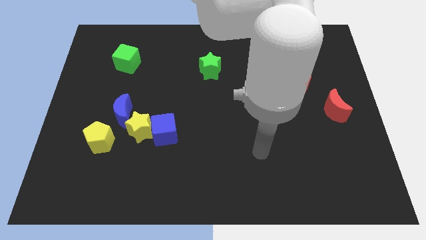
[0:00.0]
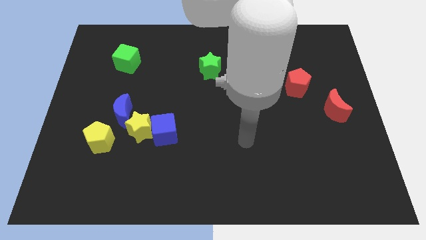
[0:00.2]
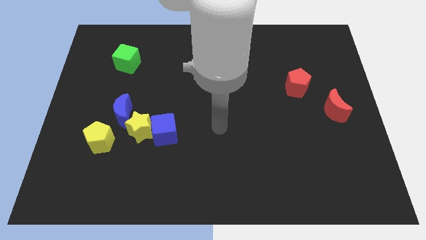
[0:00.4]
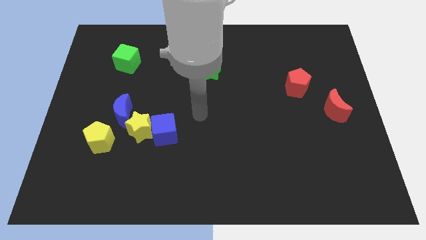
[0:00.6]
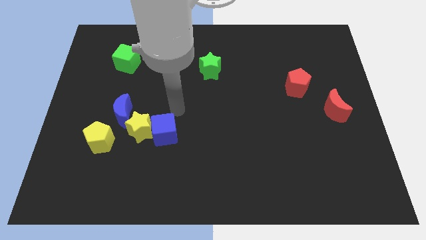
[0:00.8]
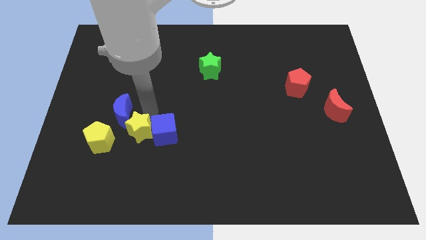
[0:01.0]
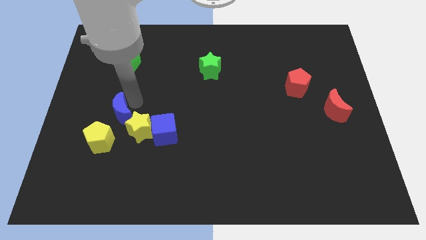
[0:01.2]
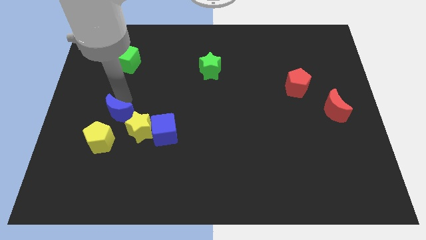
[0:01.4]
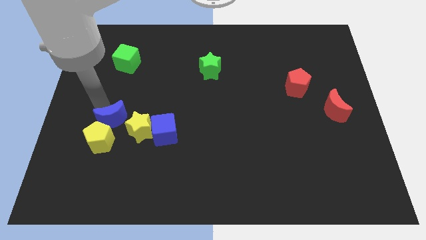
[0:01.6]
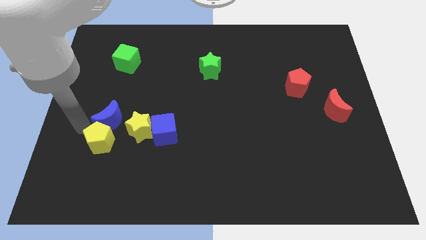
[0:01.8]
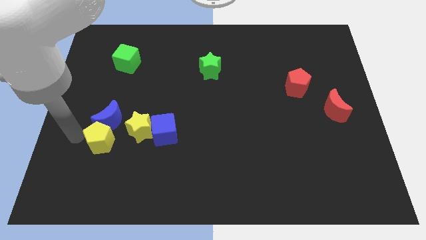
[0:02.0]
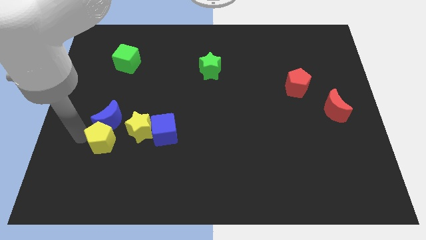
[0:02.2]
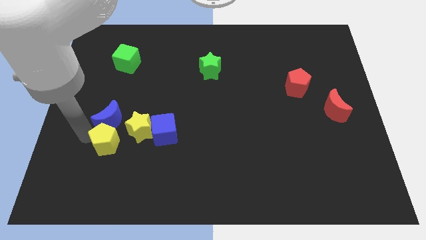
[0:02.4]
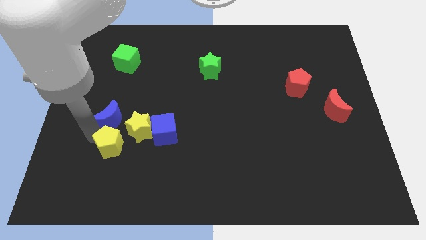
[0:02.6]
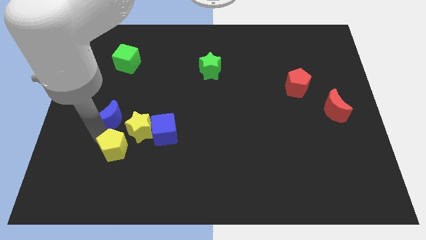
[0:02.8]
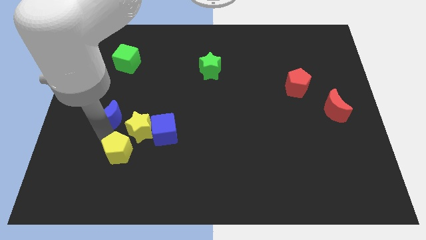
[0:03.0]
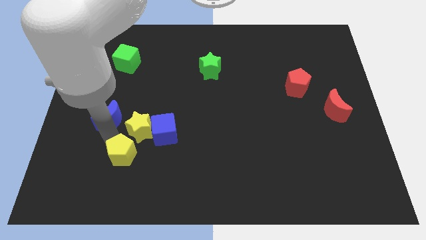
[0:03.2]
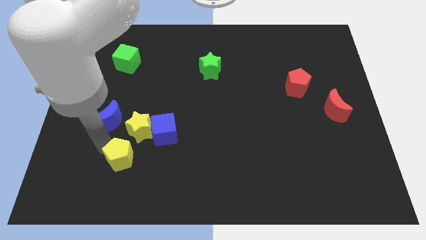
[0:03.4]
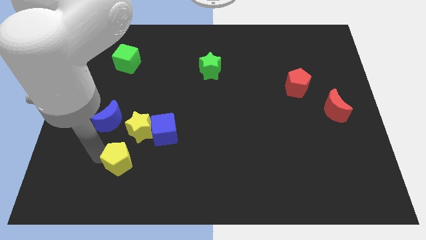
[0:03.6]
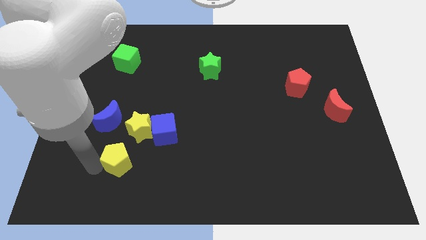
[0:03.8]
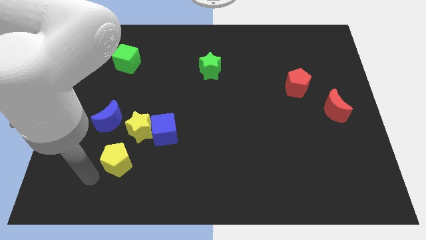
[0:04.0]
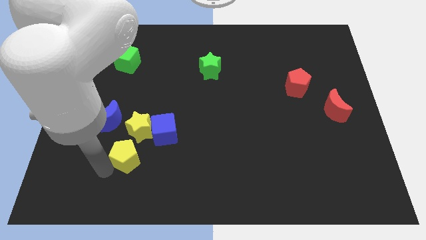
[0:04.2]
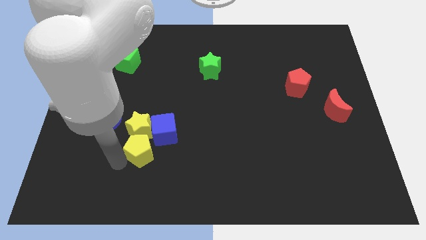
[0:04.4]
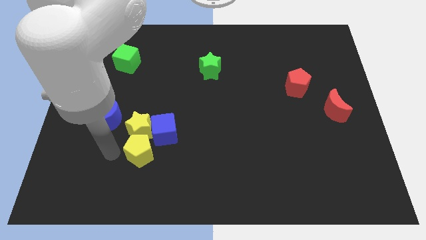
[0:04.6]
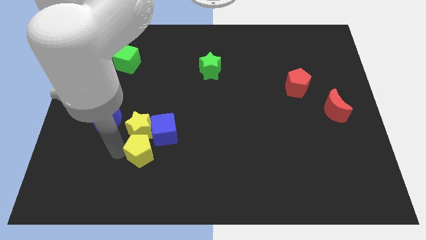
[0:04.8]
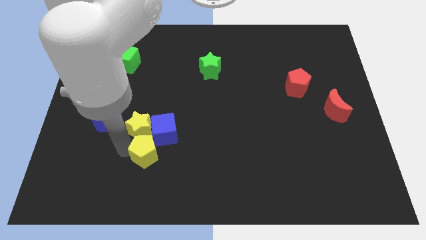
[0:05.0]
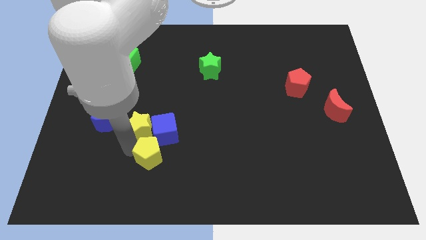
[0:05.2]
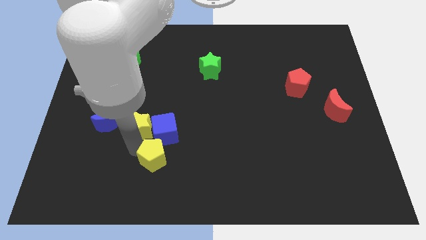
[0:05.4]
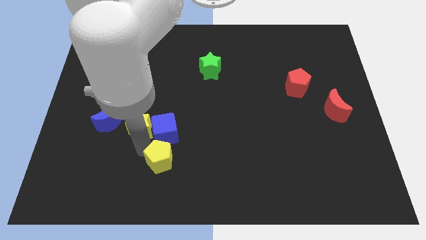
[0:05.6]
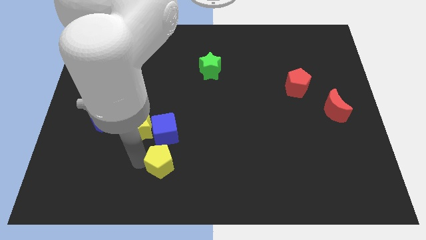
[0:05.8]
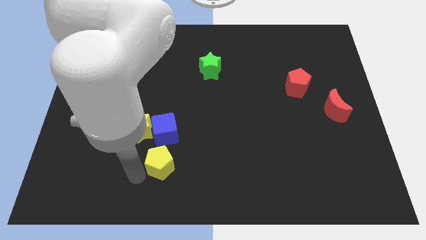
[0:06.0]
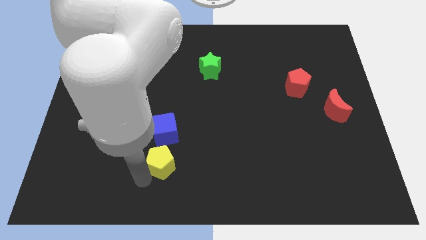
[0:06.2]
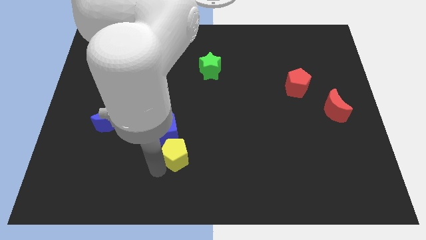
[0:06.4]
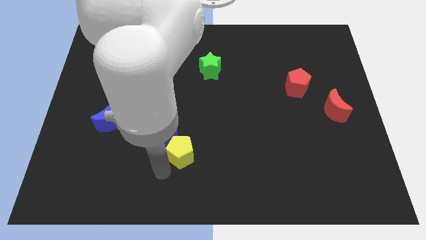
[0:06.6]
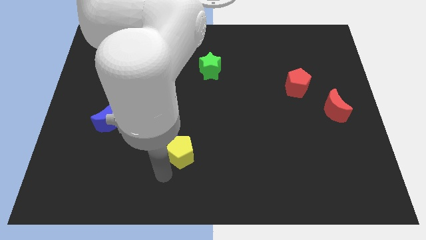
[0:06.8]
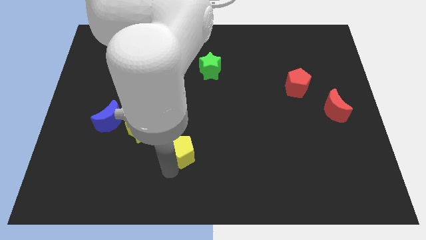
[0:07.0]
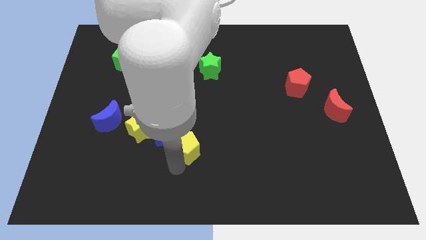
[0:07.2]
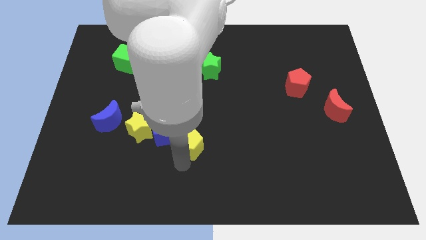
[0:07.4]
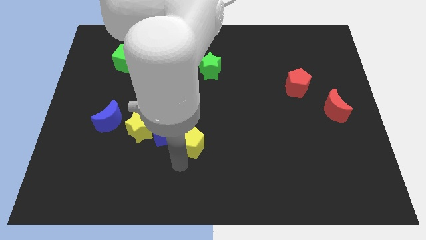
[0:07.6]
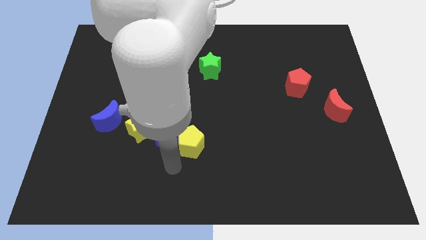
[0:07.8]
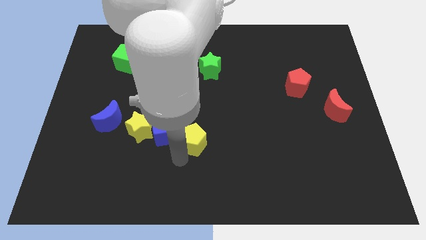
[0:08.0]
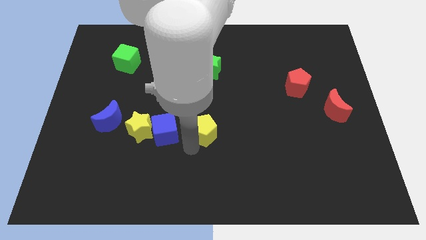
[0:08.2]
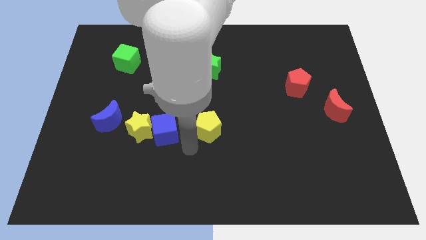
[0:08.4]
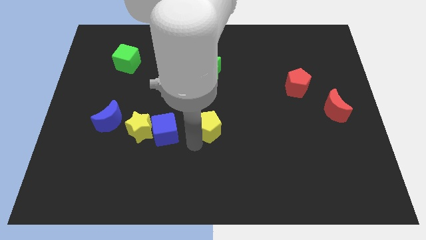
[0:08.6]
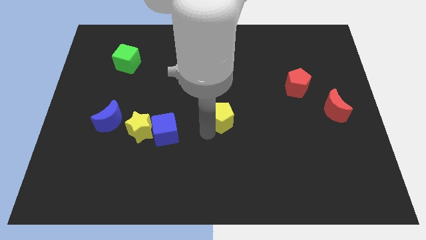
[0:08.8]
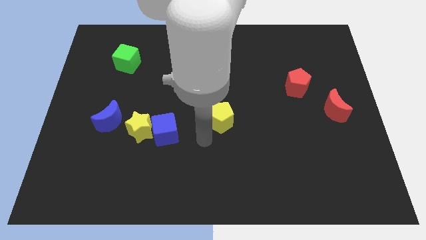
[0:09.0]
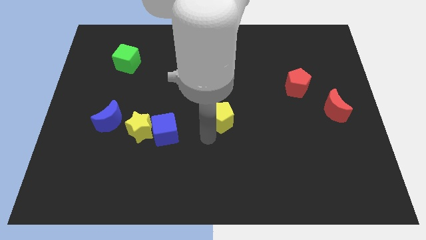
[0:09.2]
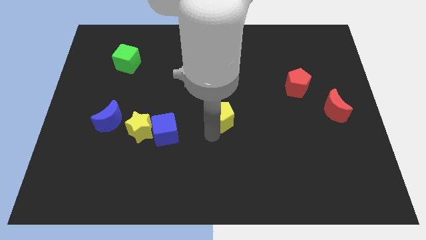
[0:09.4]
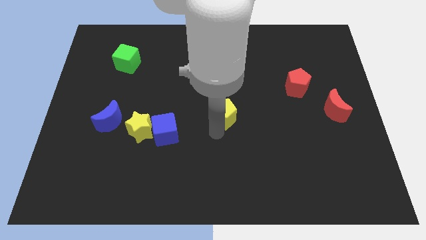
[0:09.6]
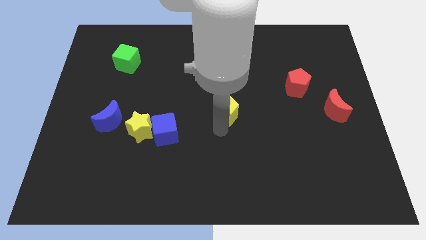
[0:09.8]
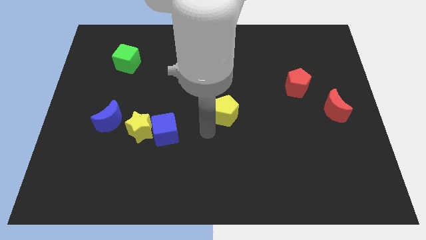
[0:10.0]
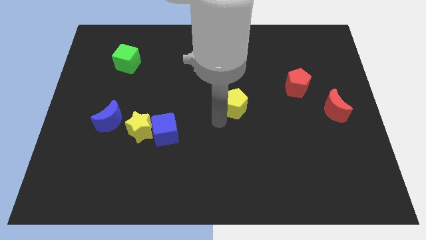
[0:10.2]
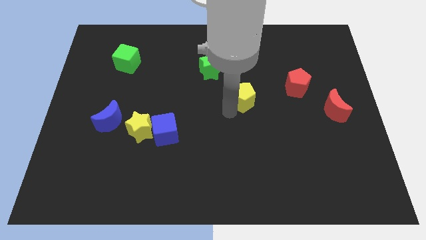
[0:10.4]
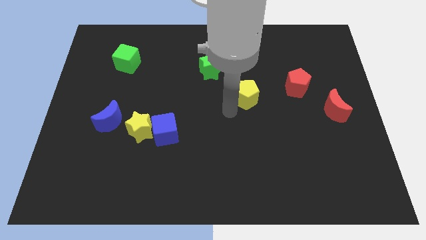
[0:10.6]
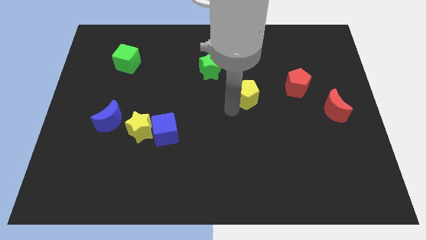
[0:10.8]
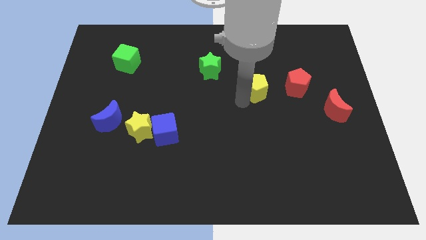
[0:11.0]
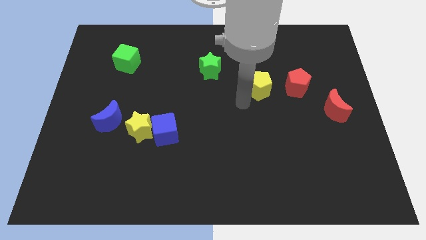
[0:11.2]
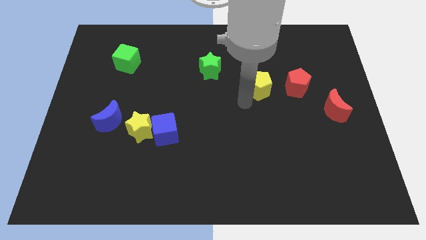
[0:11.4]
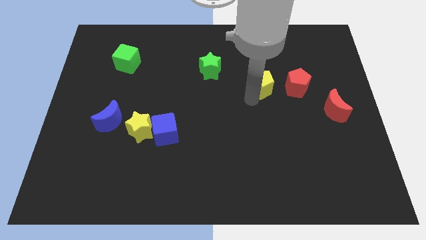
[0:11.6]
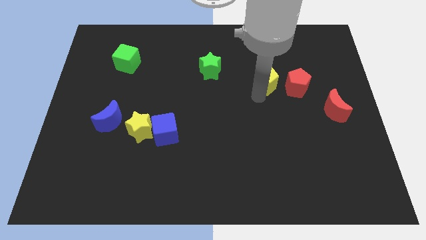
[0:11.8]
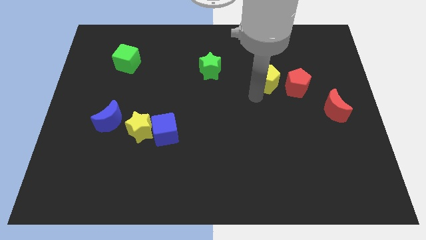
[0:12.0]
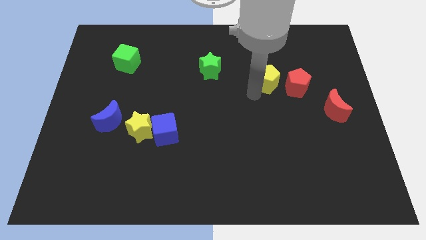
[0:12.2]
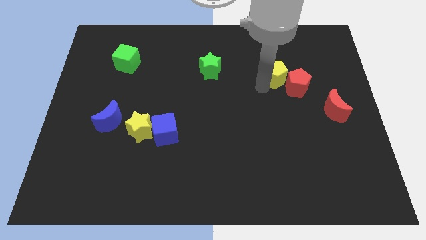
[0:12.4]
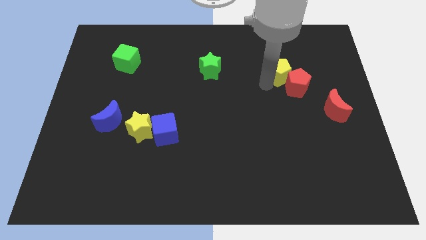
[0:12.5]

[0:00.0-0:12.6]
push the yellow pentagon to the top side of the red pentagon

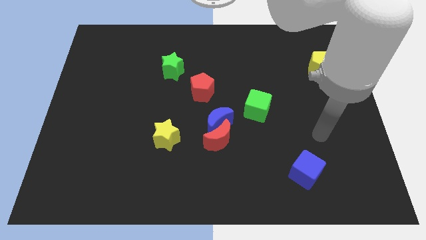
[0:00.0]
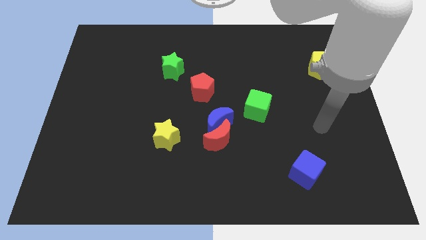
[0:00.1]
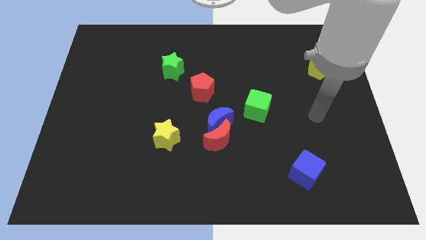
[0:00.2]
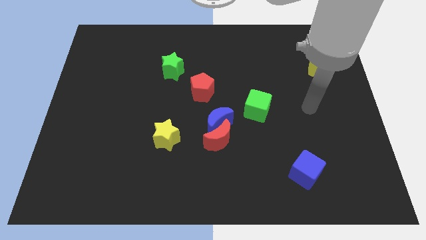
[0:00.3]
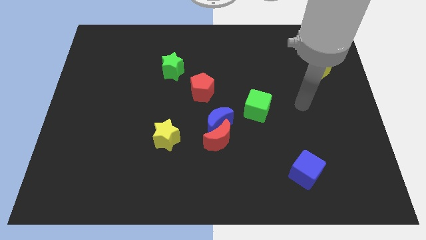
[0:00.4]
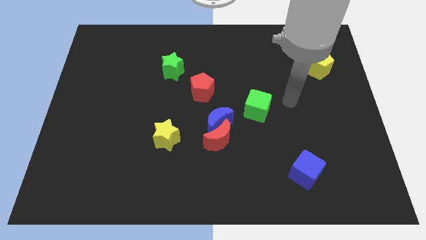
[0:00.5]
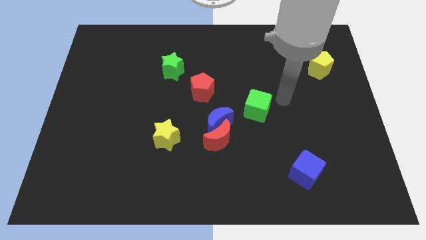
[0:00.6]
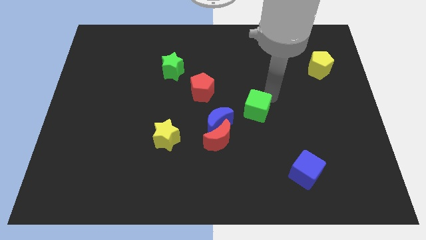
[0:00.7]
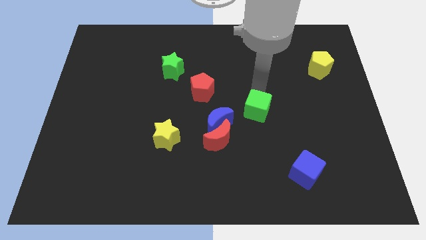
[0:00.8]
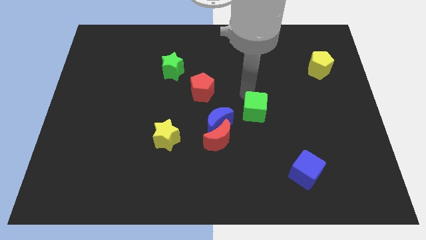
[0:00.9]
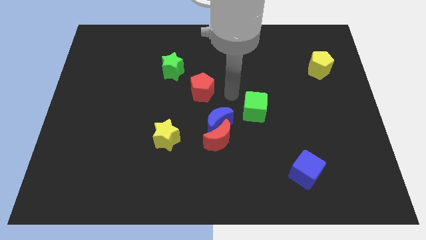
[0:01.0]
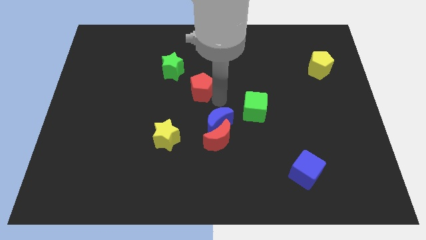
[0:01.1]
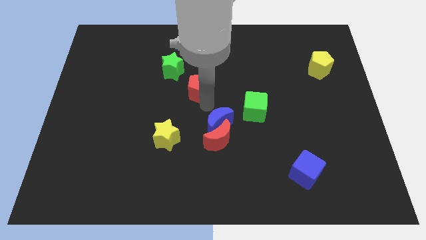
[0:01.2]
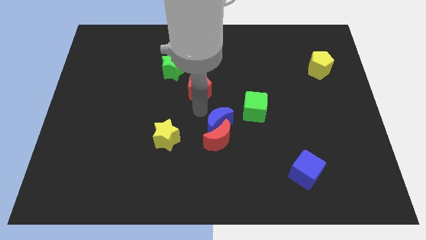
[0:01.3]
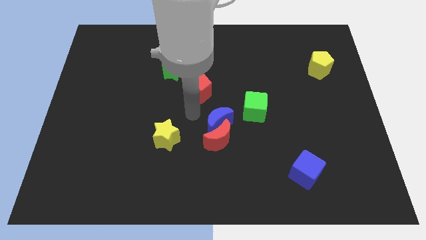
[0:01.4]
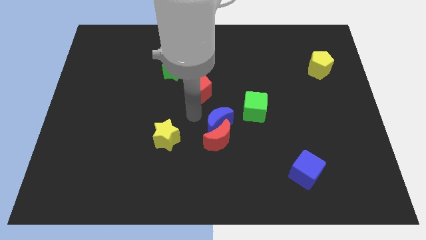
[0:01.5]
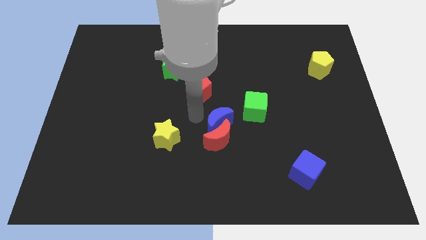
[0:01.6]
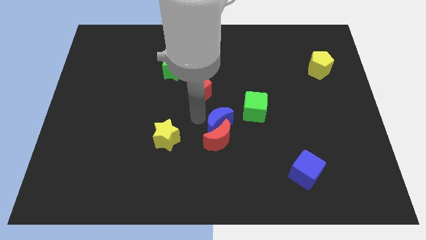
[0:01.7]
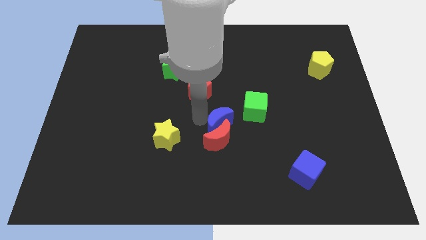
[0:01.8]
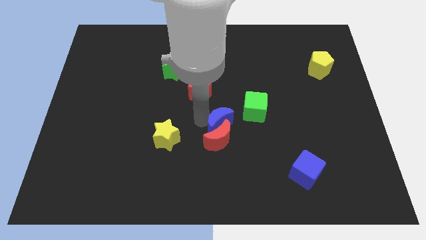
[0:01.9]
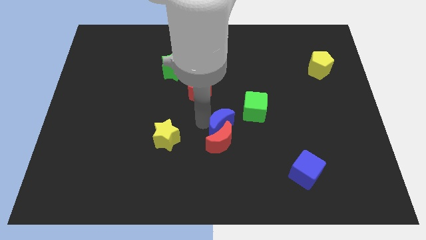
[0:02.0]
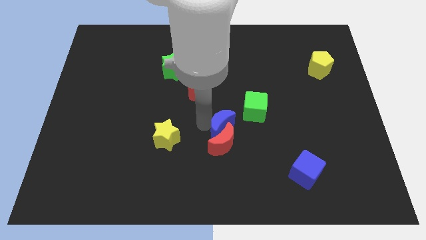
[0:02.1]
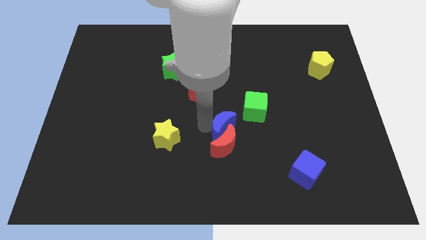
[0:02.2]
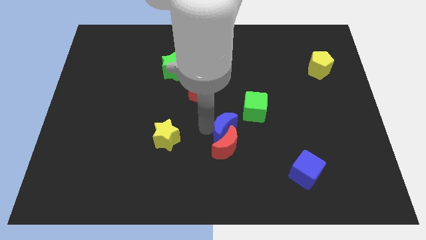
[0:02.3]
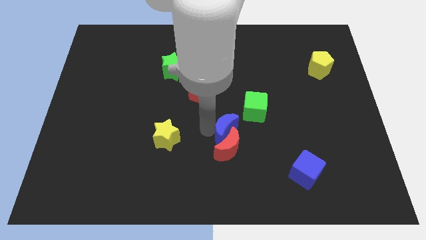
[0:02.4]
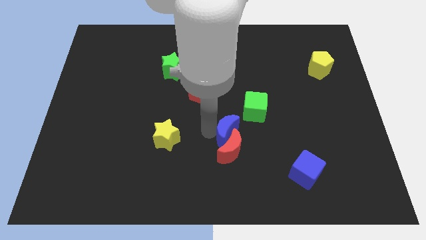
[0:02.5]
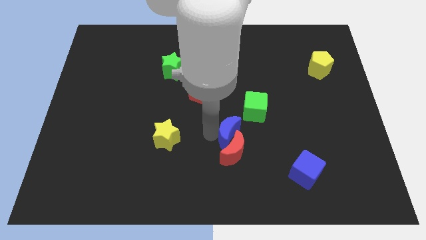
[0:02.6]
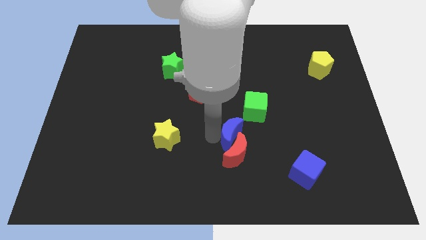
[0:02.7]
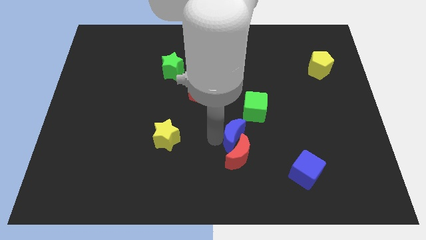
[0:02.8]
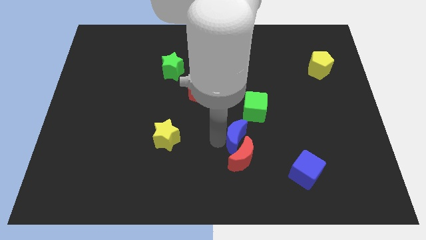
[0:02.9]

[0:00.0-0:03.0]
slide the blue moon to the bottom of the green cube
